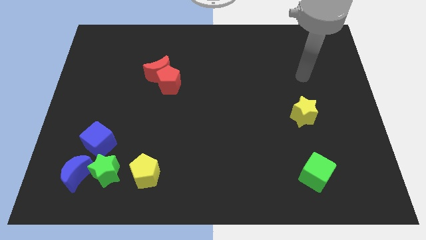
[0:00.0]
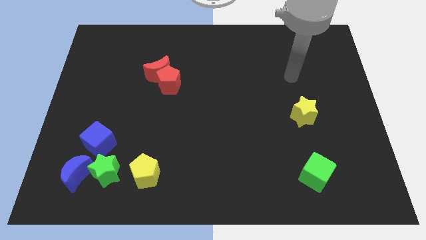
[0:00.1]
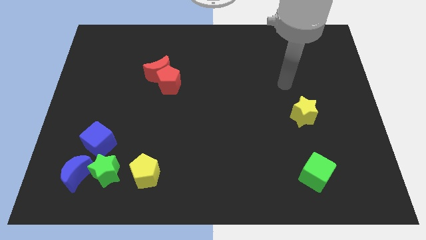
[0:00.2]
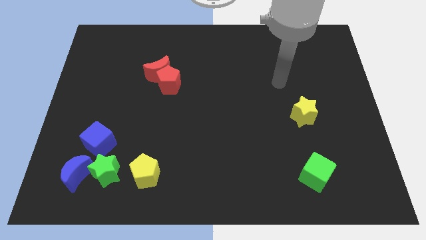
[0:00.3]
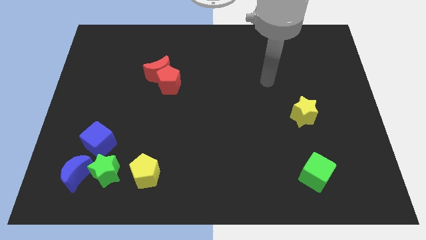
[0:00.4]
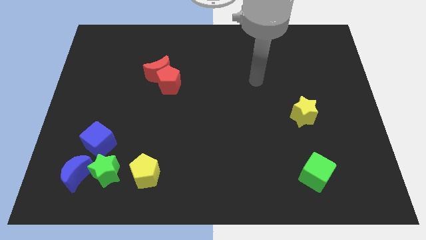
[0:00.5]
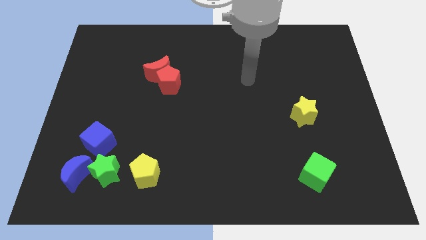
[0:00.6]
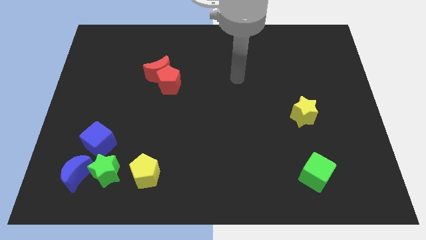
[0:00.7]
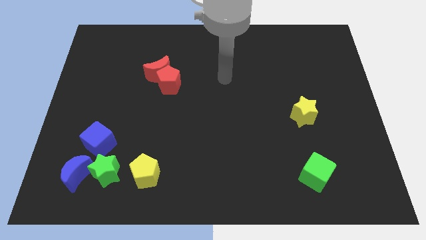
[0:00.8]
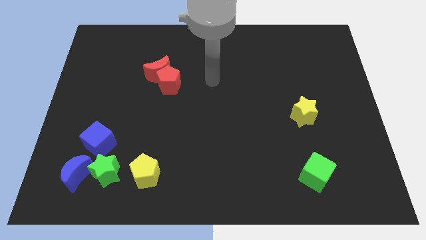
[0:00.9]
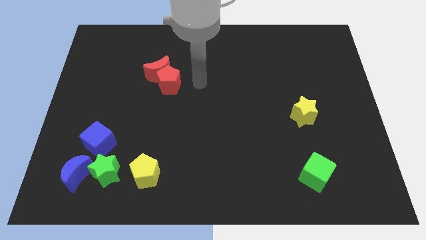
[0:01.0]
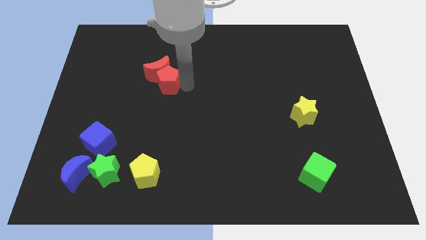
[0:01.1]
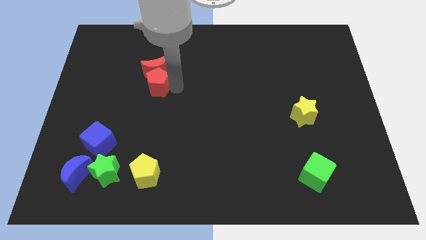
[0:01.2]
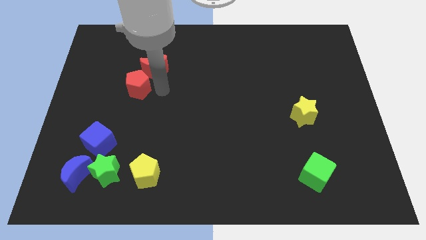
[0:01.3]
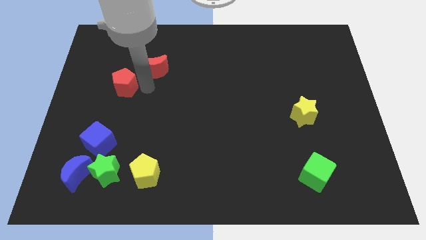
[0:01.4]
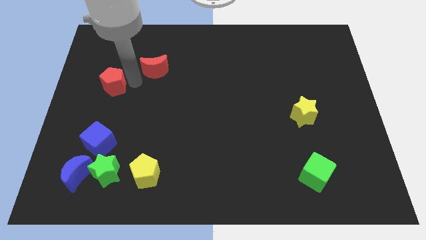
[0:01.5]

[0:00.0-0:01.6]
pull the red moon apart from the red pentagon

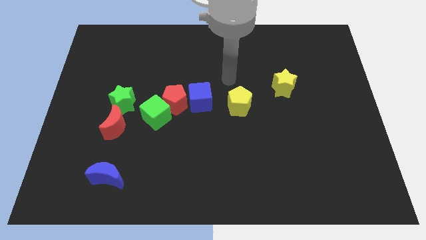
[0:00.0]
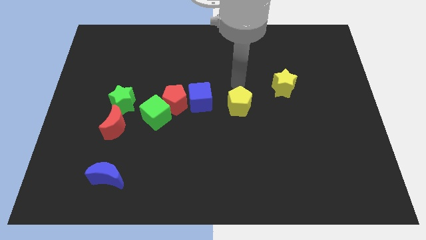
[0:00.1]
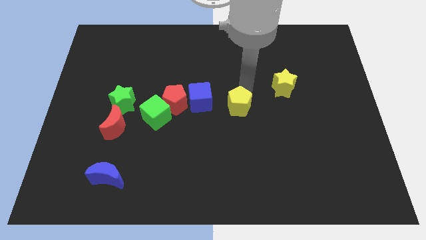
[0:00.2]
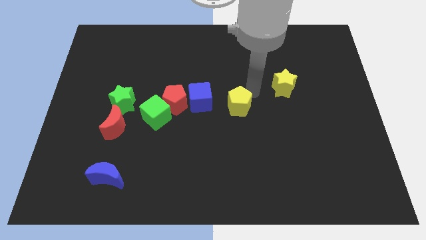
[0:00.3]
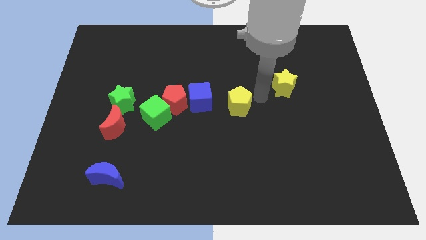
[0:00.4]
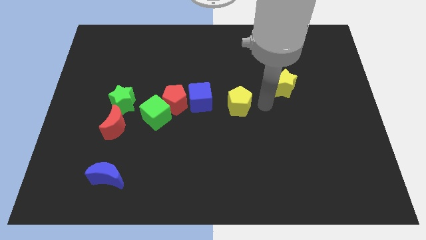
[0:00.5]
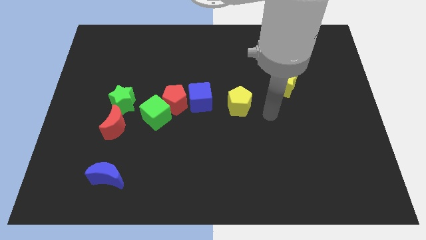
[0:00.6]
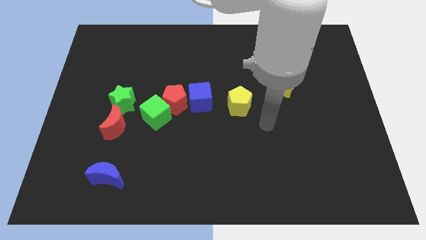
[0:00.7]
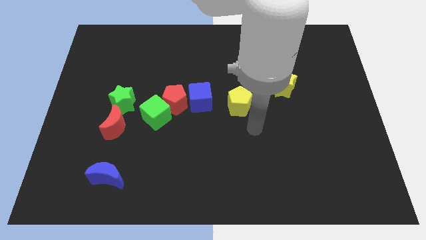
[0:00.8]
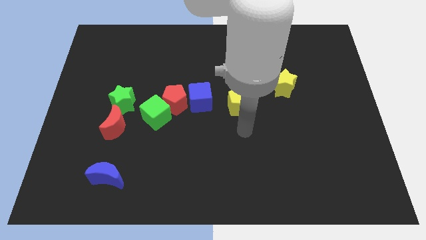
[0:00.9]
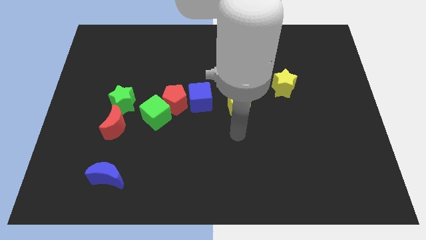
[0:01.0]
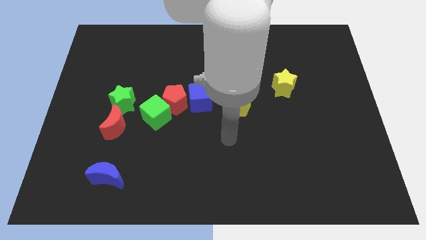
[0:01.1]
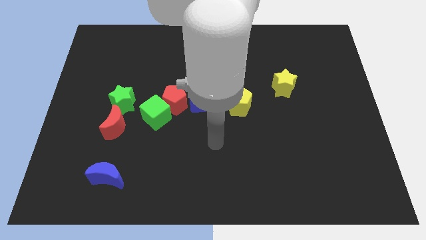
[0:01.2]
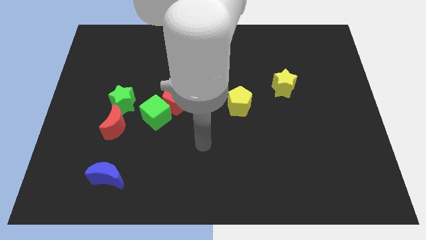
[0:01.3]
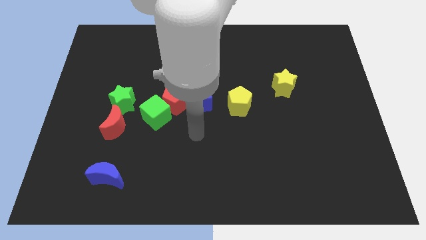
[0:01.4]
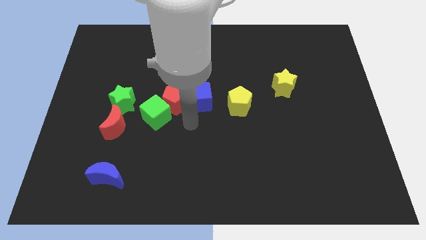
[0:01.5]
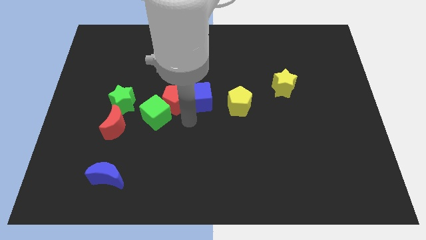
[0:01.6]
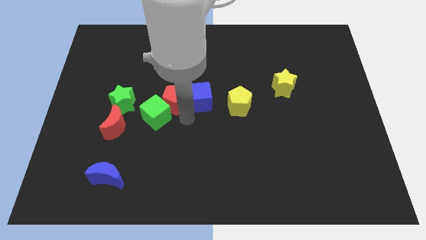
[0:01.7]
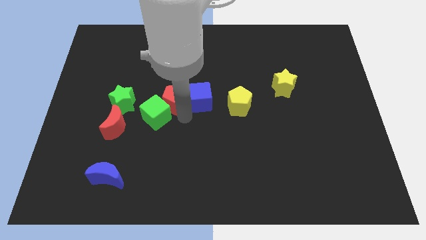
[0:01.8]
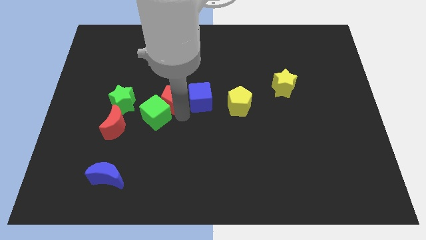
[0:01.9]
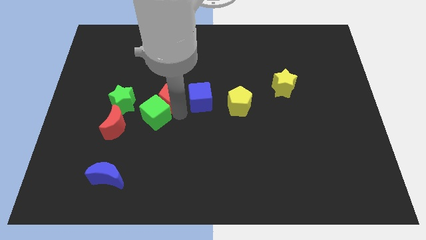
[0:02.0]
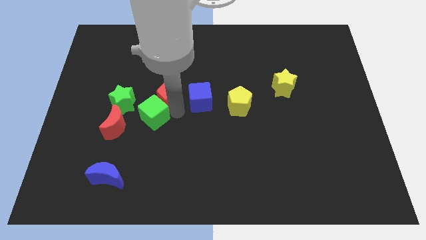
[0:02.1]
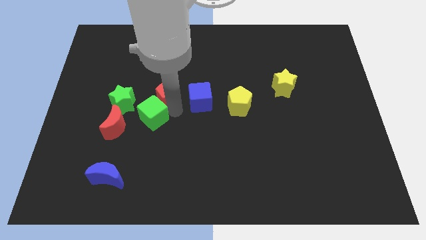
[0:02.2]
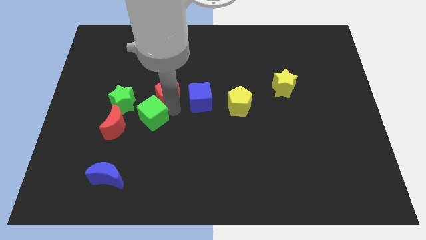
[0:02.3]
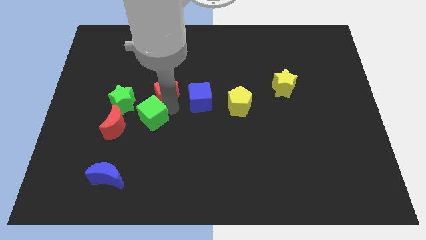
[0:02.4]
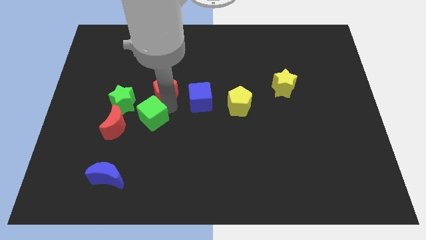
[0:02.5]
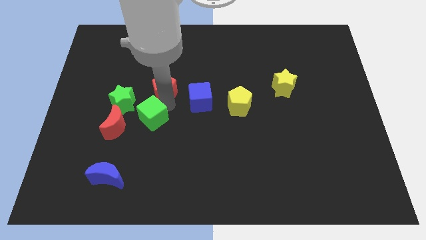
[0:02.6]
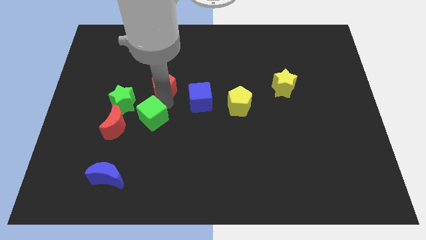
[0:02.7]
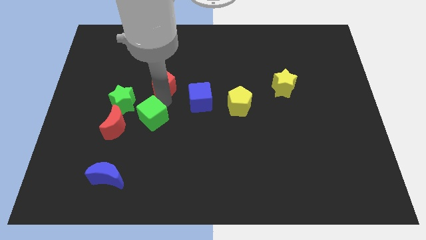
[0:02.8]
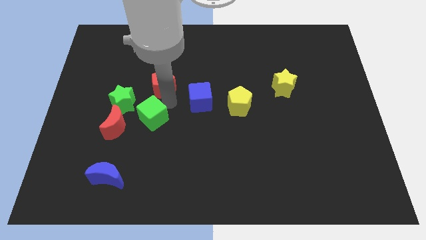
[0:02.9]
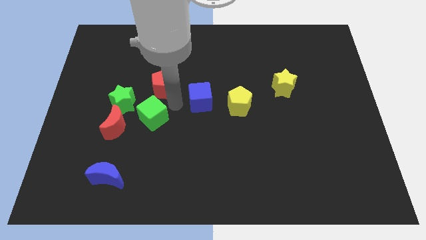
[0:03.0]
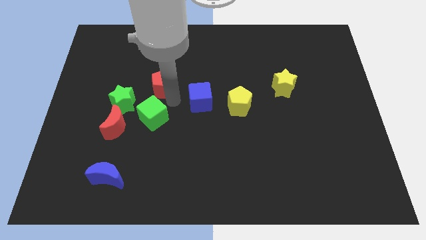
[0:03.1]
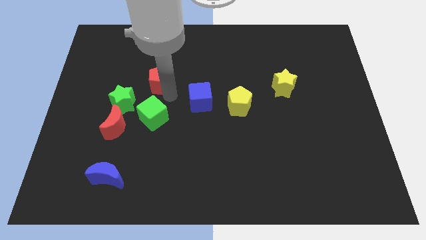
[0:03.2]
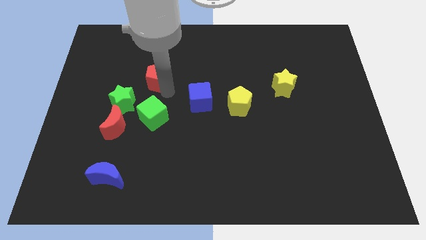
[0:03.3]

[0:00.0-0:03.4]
pull the red pentagon apart from the green cube and blue cube

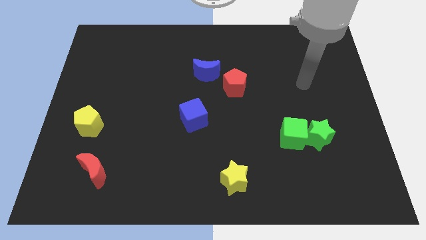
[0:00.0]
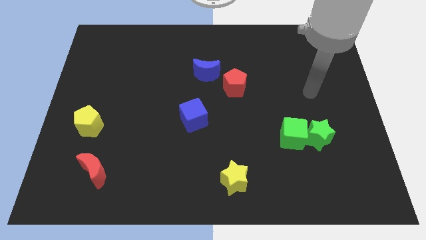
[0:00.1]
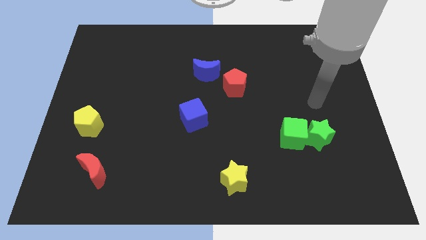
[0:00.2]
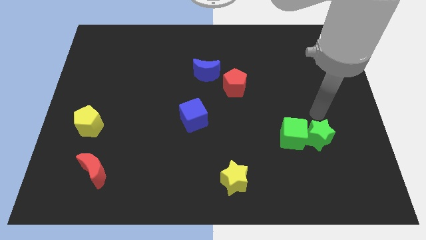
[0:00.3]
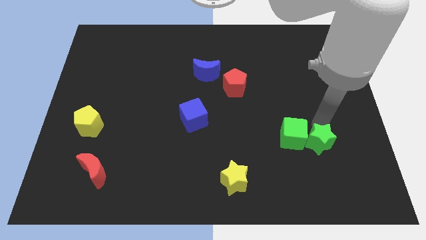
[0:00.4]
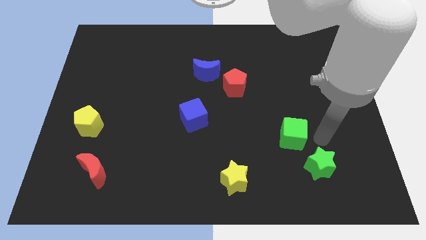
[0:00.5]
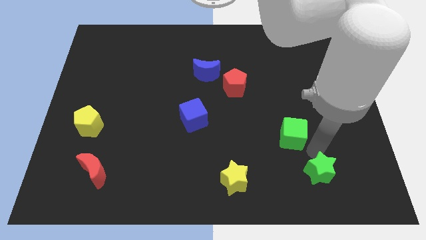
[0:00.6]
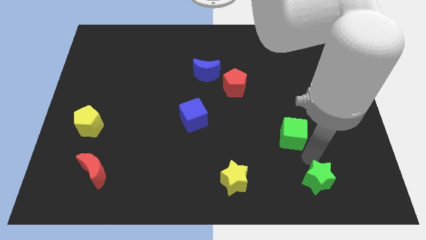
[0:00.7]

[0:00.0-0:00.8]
move the green cube away from the green star

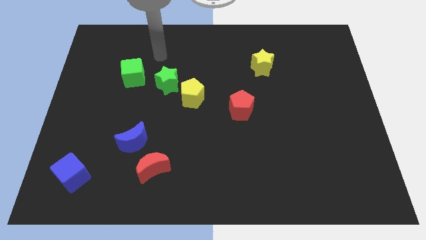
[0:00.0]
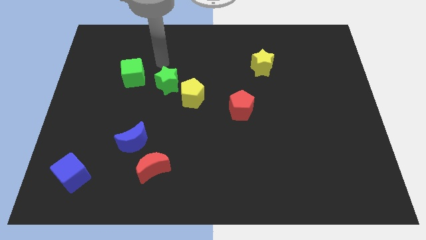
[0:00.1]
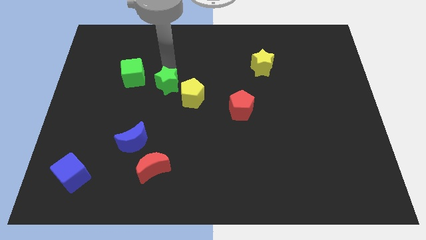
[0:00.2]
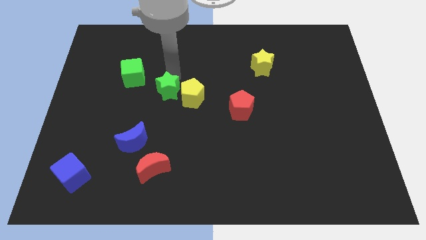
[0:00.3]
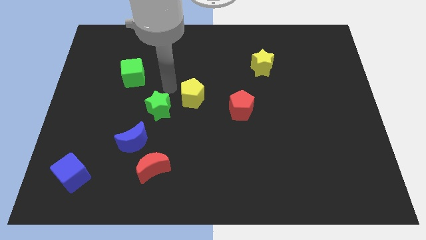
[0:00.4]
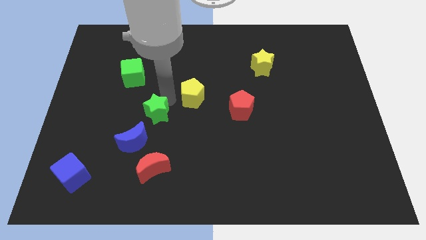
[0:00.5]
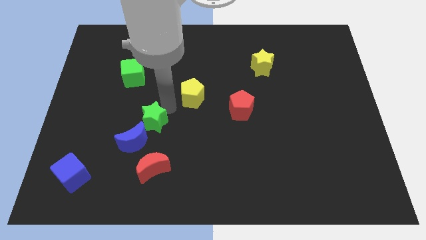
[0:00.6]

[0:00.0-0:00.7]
move the yellow pentagon away from the green star

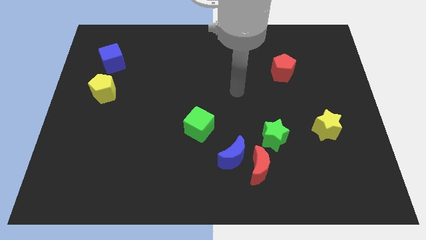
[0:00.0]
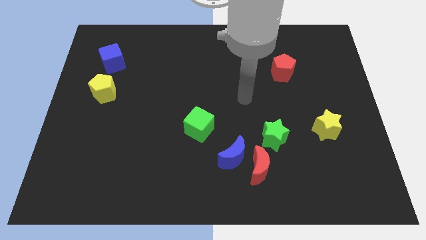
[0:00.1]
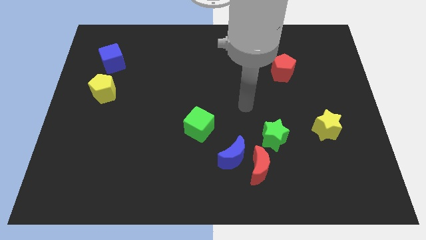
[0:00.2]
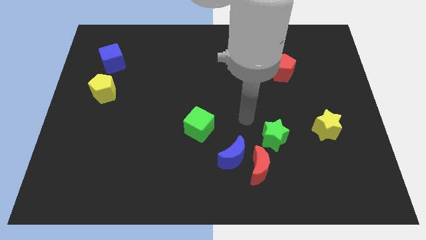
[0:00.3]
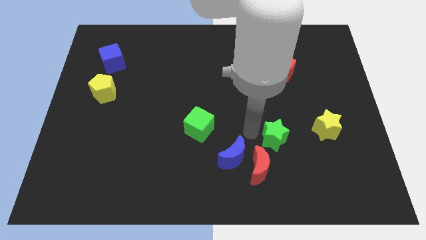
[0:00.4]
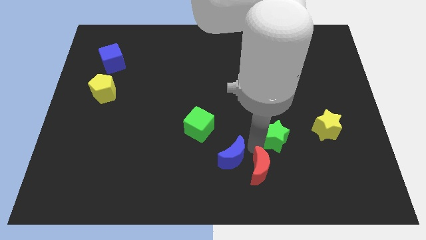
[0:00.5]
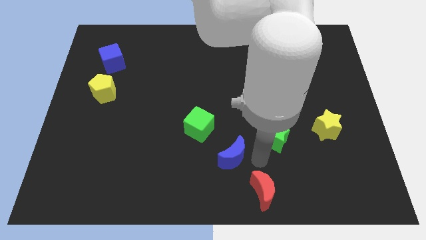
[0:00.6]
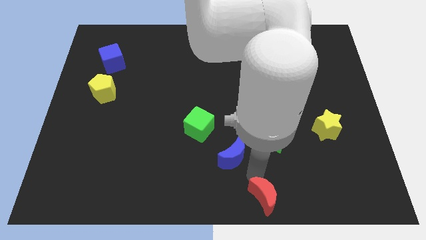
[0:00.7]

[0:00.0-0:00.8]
move the blue moon away from the red moon

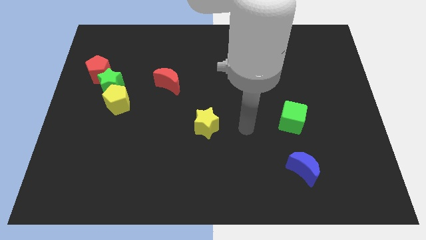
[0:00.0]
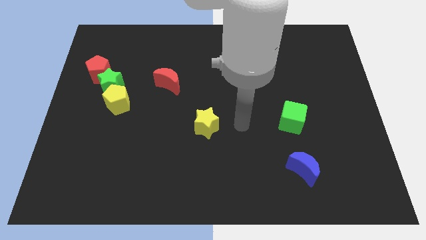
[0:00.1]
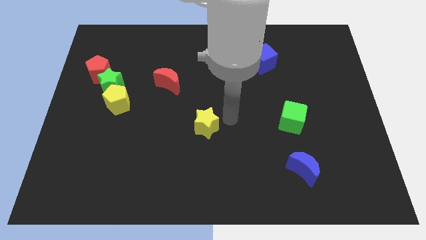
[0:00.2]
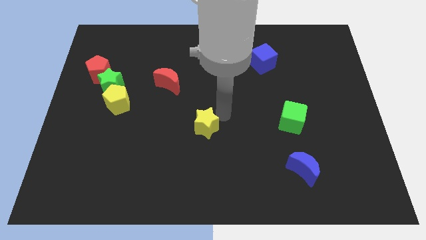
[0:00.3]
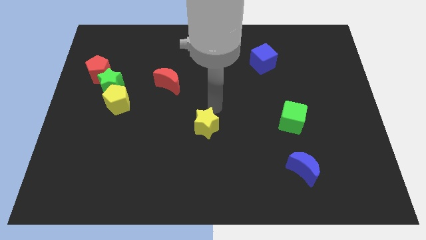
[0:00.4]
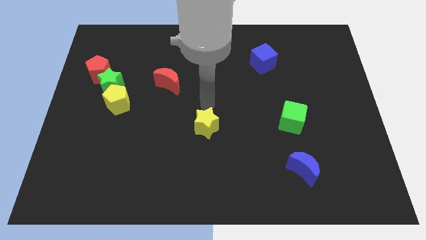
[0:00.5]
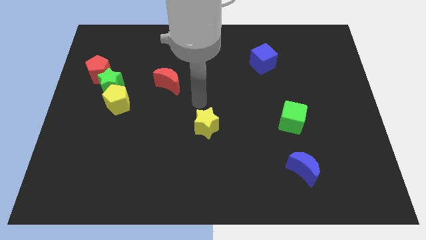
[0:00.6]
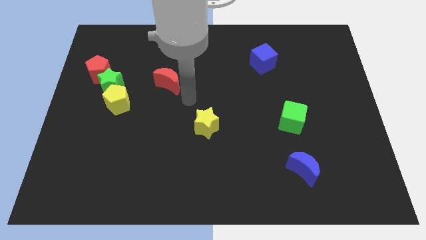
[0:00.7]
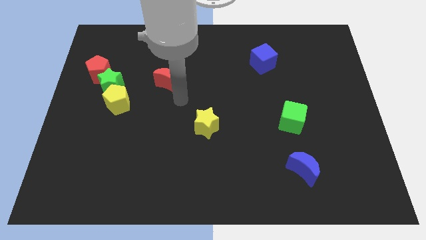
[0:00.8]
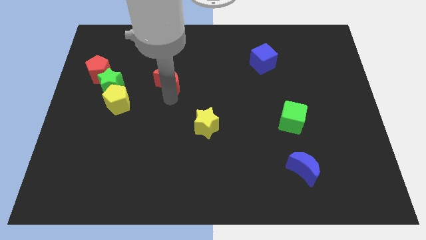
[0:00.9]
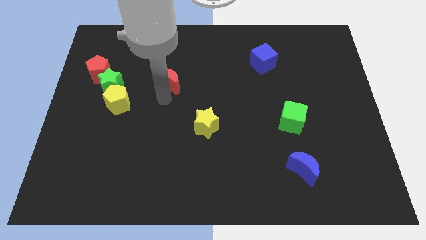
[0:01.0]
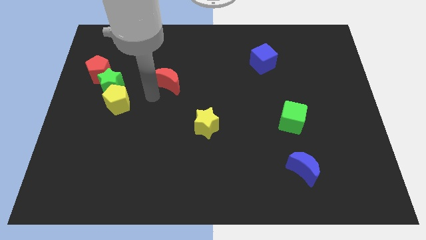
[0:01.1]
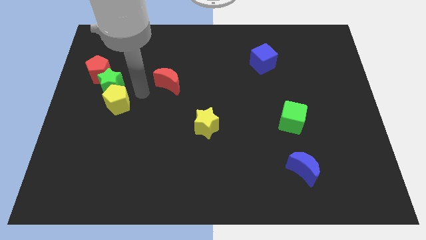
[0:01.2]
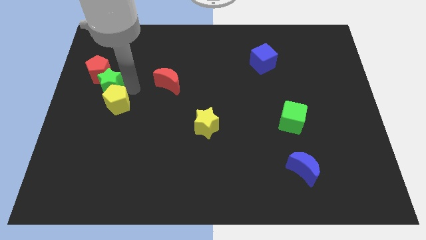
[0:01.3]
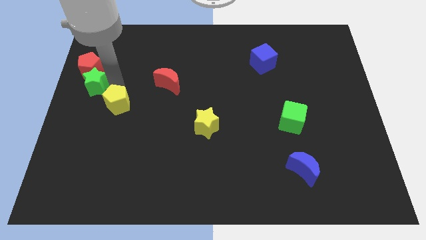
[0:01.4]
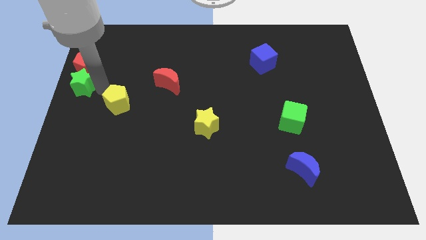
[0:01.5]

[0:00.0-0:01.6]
separate the yellow pentagon from the green star

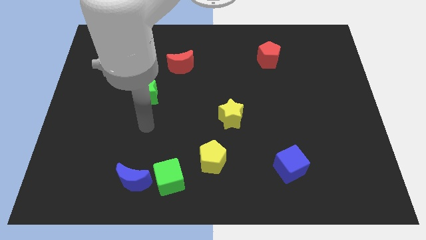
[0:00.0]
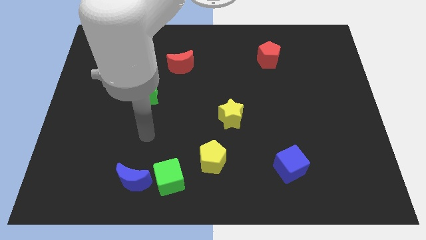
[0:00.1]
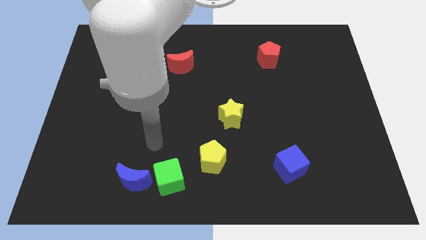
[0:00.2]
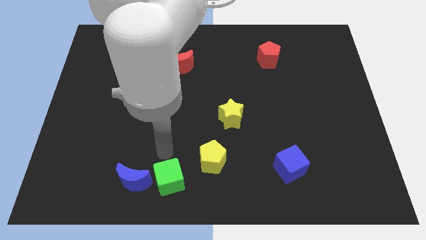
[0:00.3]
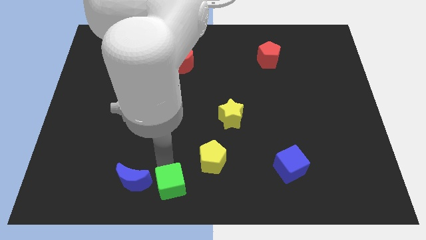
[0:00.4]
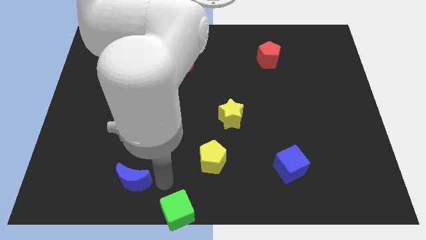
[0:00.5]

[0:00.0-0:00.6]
move the blue moon away from the green cube
